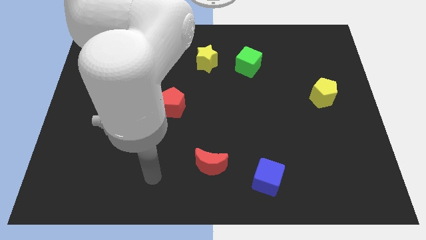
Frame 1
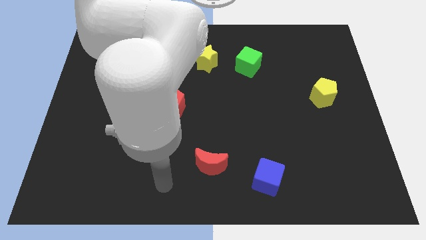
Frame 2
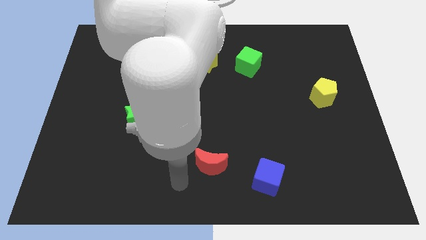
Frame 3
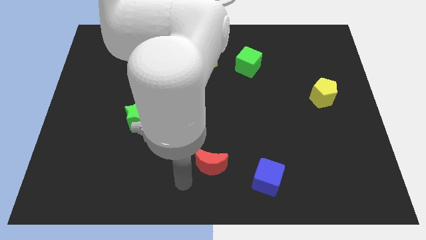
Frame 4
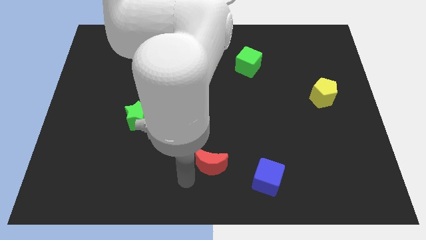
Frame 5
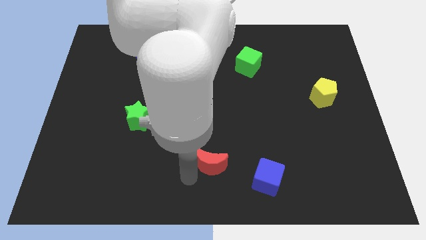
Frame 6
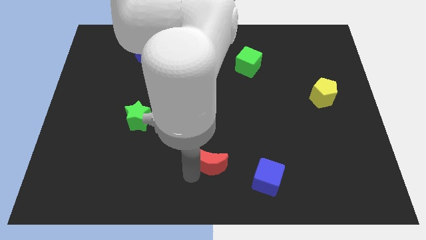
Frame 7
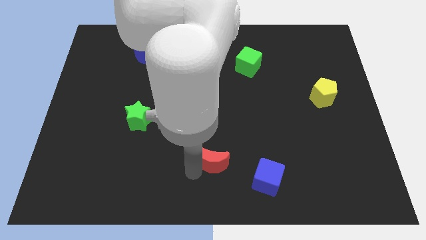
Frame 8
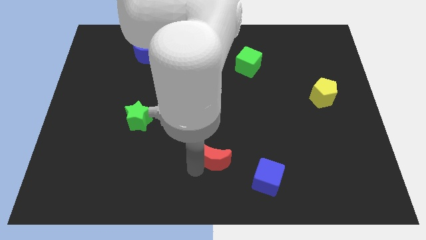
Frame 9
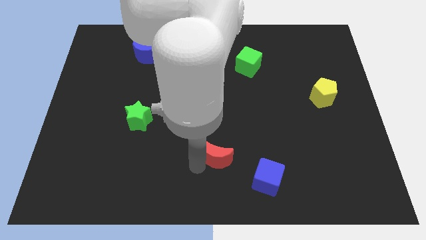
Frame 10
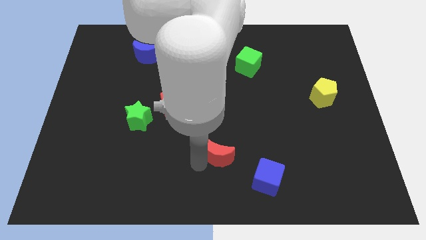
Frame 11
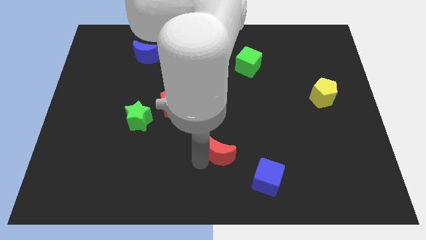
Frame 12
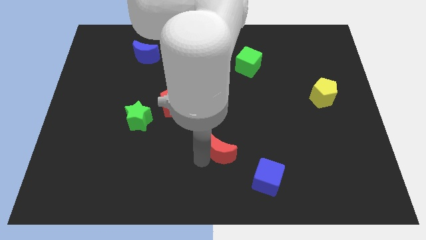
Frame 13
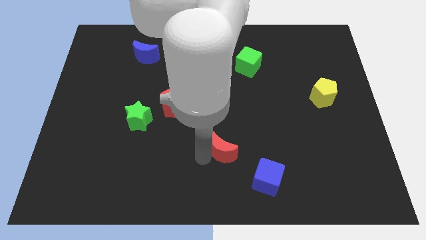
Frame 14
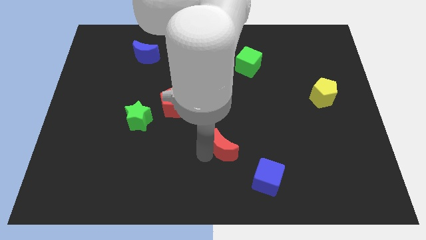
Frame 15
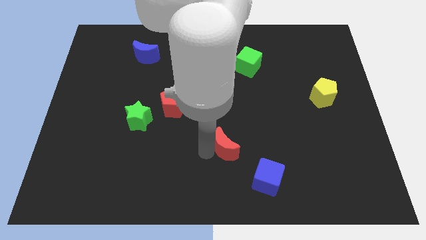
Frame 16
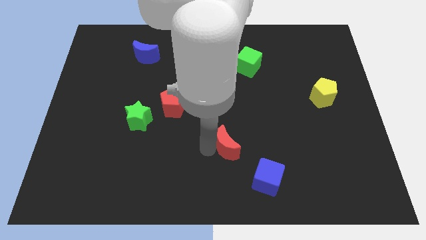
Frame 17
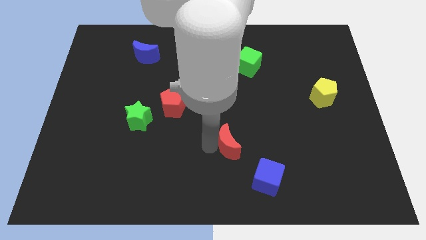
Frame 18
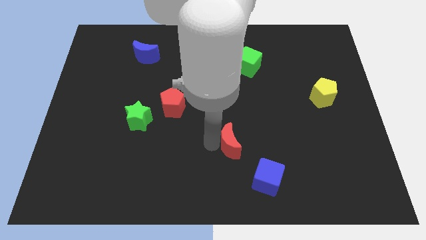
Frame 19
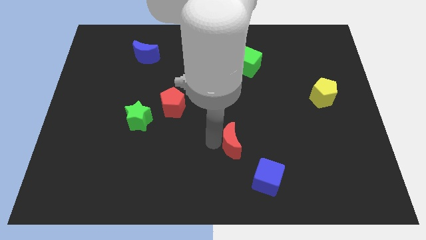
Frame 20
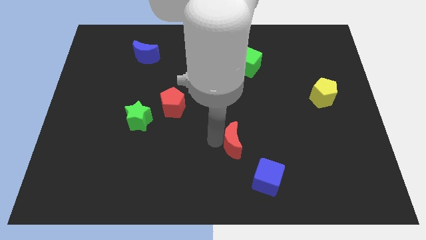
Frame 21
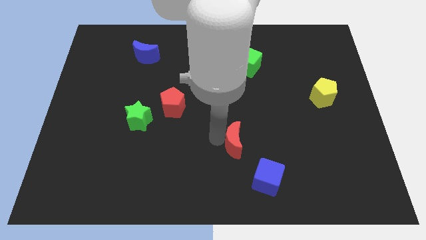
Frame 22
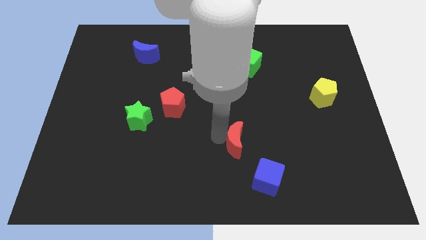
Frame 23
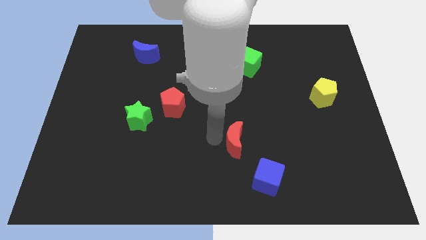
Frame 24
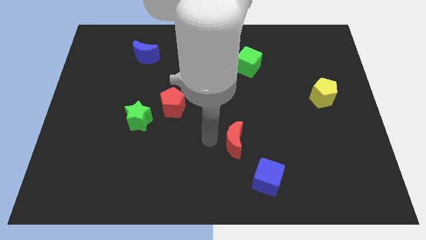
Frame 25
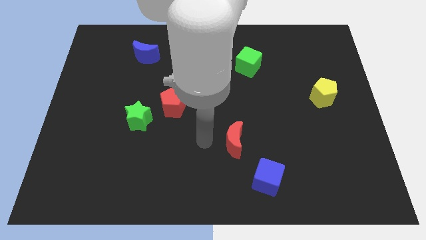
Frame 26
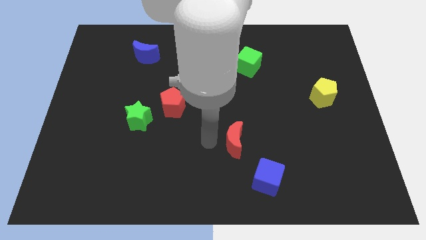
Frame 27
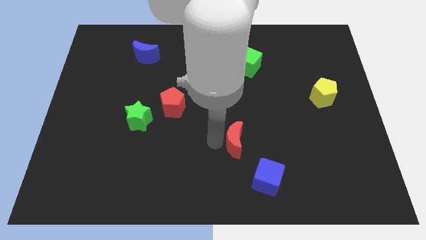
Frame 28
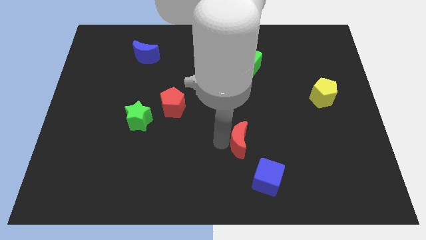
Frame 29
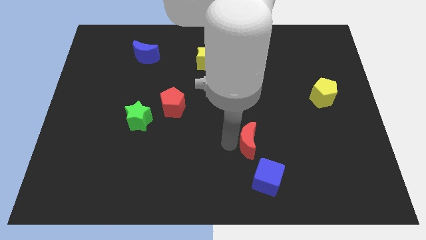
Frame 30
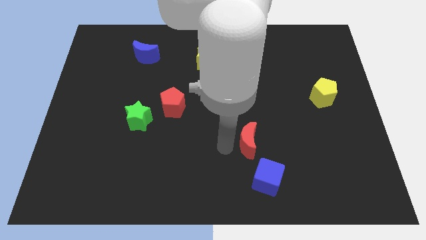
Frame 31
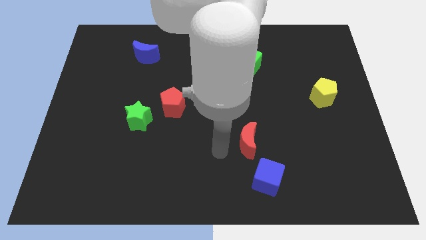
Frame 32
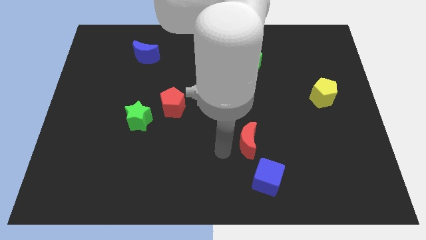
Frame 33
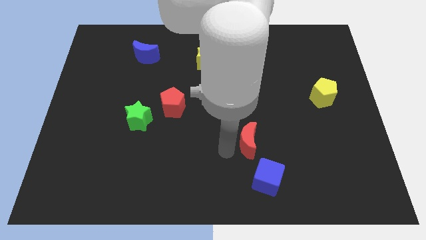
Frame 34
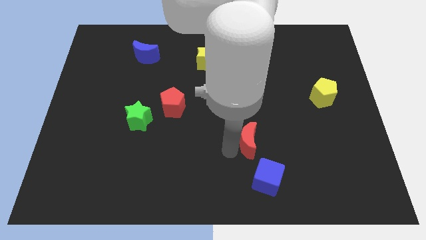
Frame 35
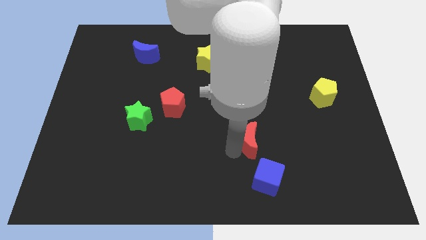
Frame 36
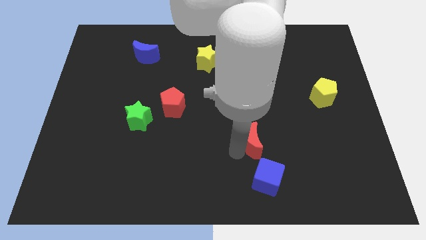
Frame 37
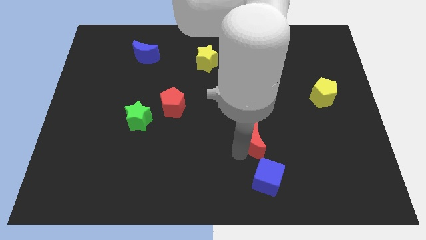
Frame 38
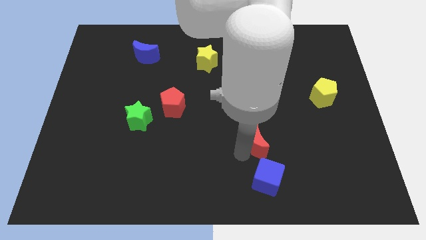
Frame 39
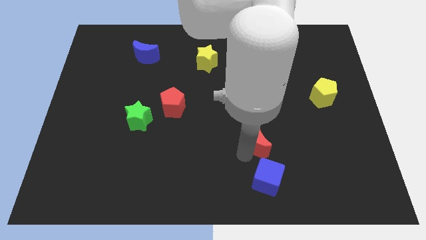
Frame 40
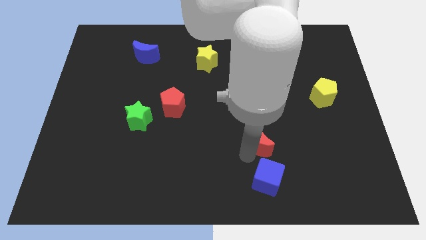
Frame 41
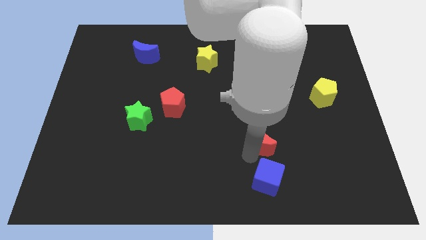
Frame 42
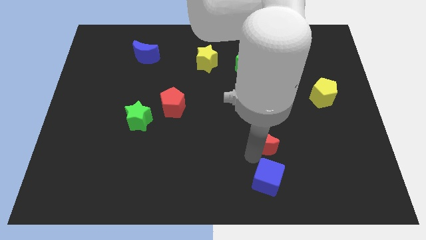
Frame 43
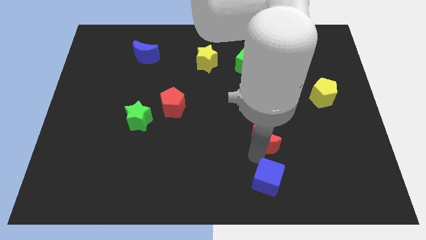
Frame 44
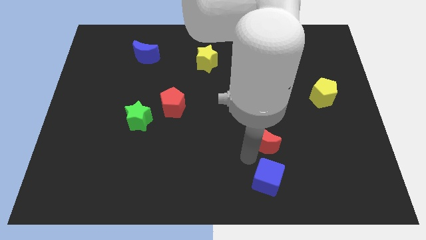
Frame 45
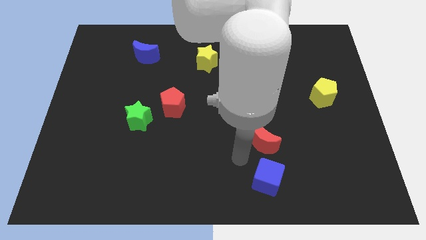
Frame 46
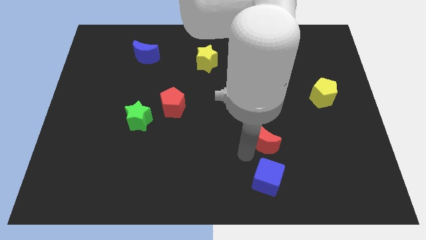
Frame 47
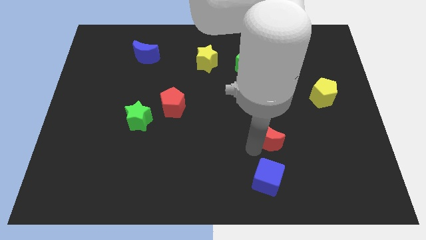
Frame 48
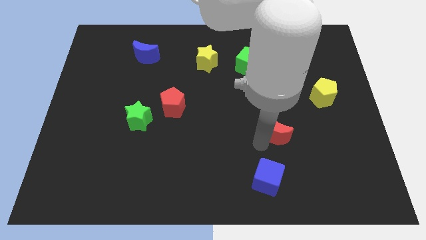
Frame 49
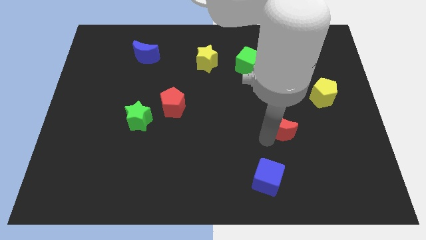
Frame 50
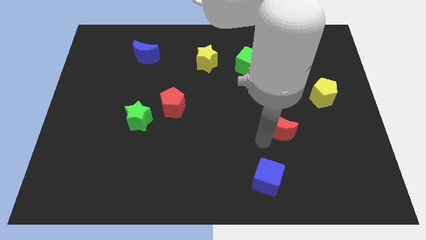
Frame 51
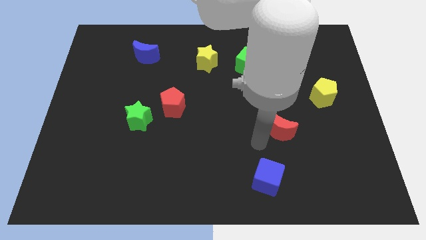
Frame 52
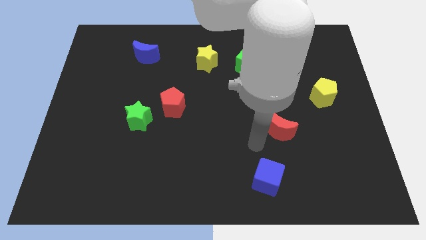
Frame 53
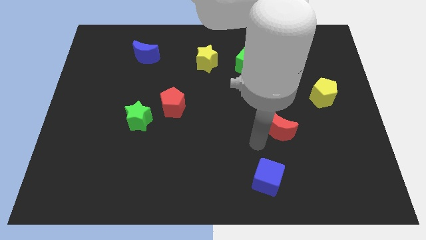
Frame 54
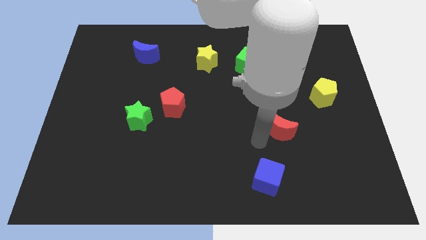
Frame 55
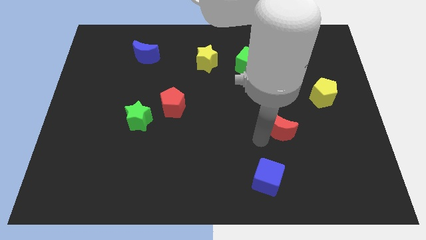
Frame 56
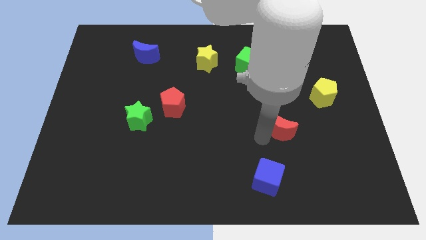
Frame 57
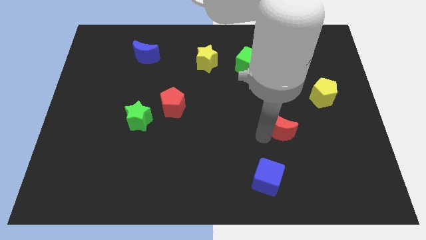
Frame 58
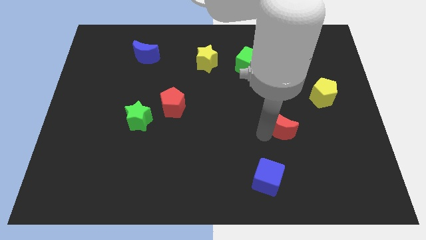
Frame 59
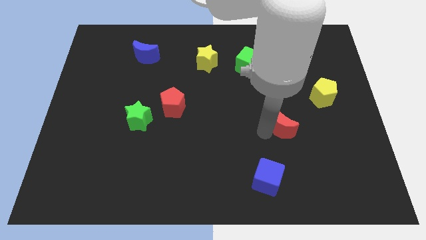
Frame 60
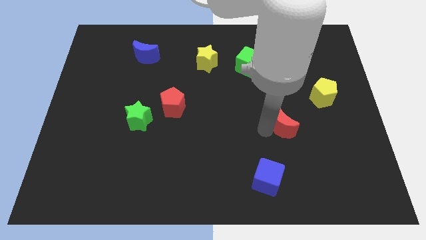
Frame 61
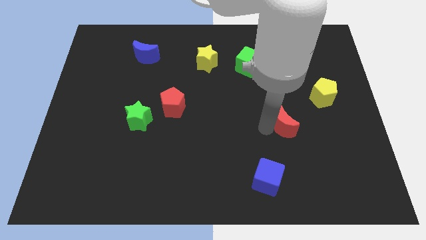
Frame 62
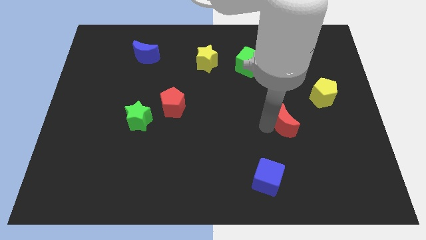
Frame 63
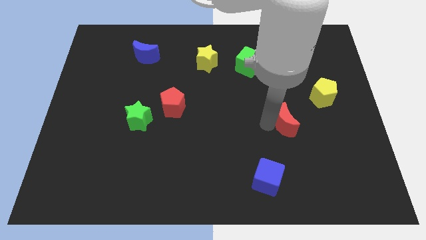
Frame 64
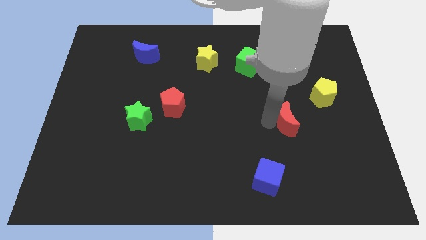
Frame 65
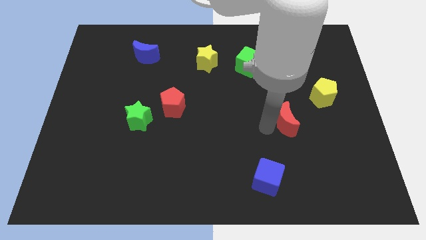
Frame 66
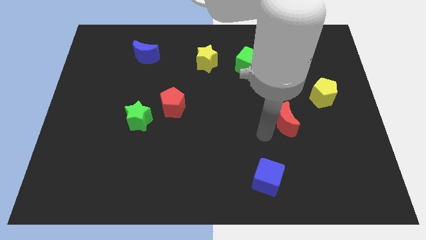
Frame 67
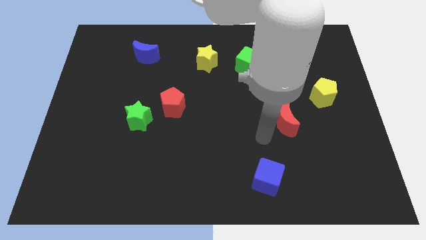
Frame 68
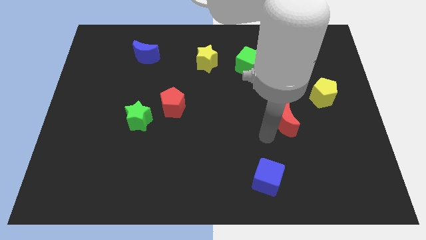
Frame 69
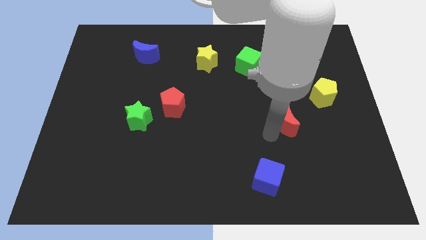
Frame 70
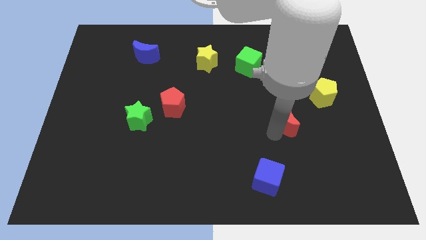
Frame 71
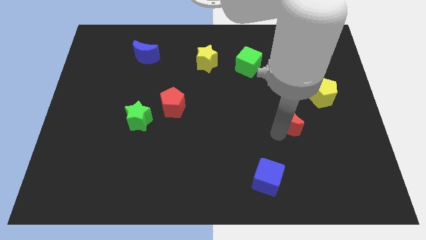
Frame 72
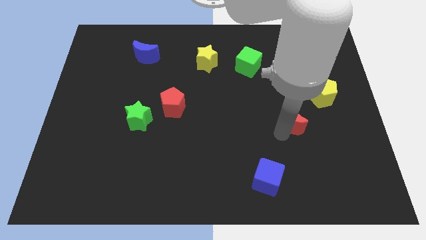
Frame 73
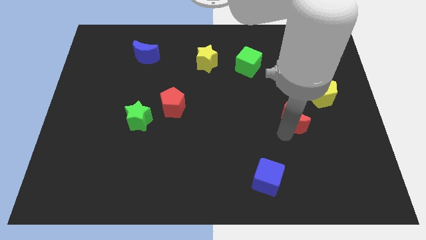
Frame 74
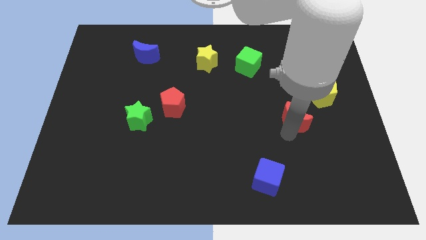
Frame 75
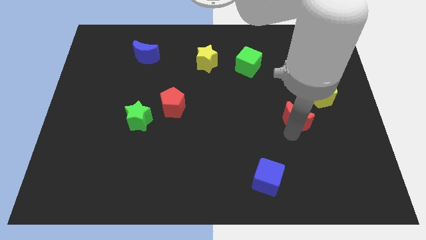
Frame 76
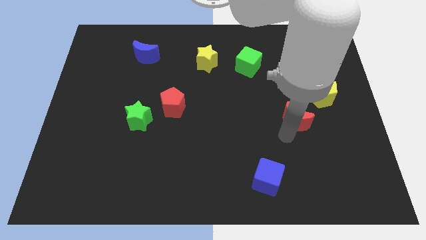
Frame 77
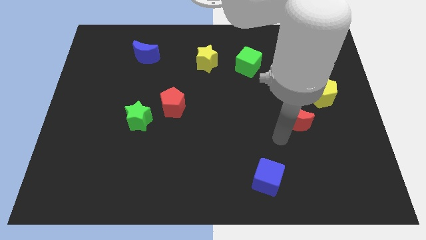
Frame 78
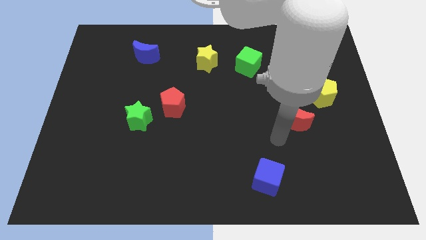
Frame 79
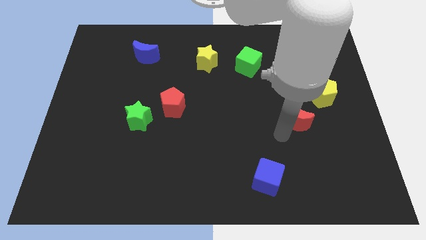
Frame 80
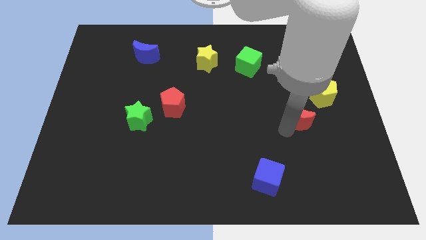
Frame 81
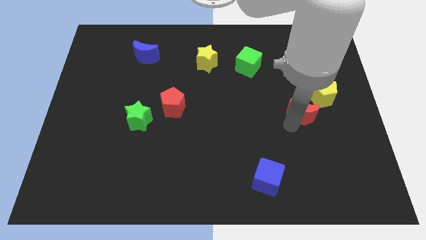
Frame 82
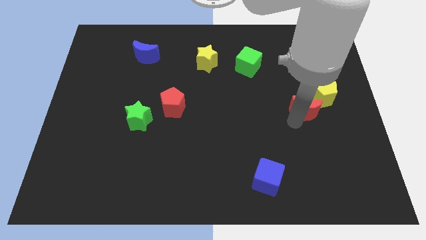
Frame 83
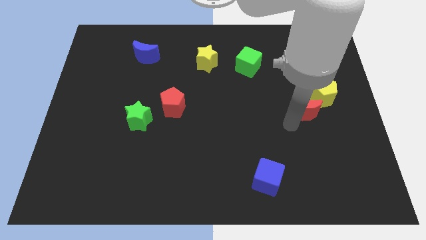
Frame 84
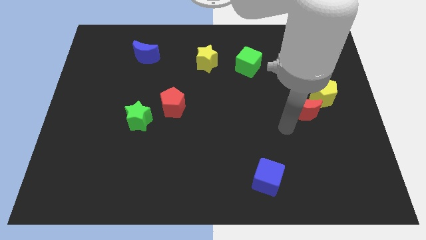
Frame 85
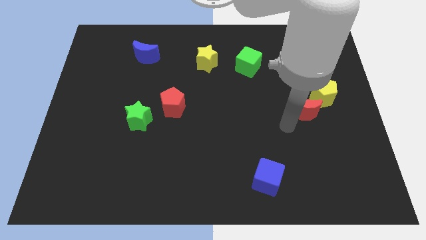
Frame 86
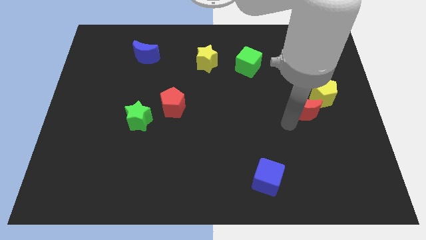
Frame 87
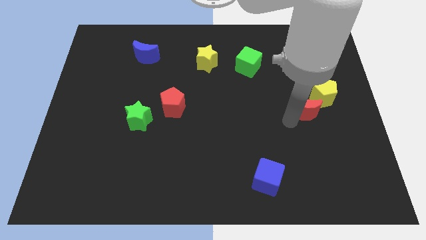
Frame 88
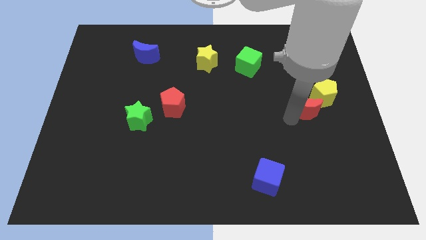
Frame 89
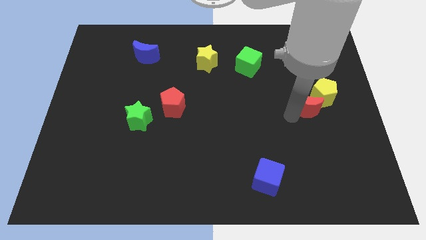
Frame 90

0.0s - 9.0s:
put the red moon close to the yellow pentagon
